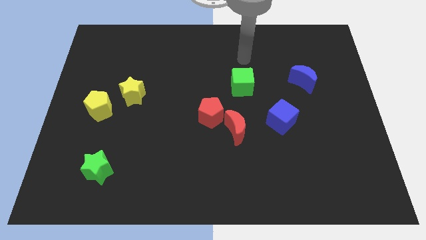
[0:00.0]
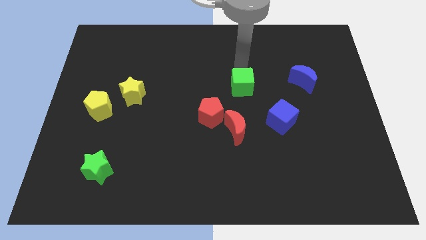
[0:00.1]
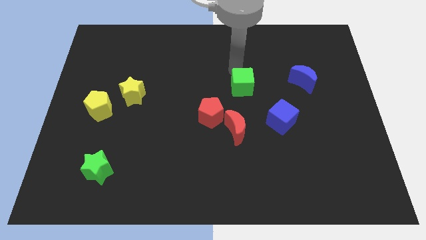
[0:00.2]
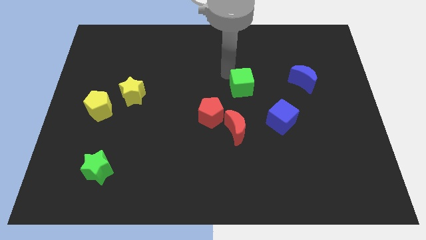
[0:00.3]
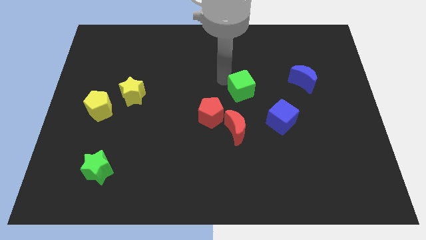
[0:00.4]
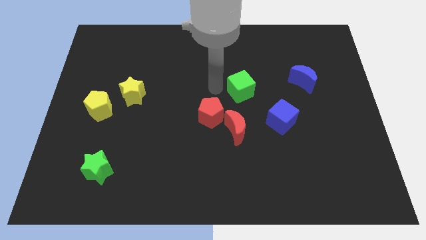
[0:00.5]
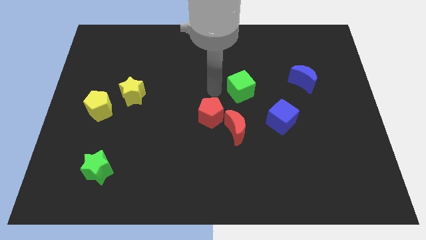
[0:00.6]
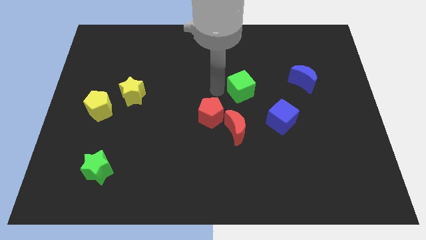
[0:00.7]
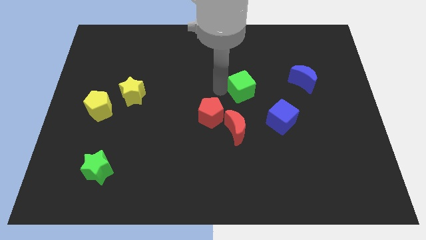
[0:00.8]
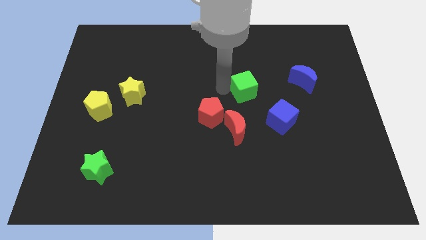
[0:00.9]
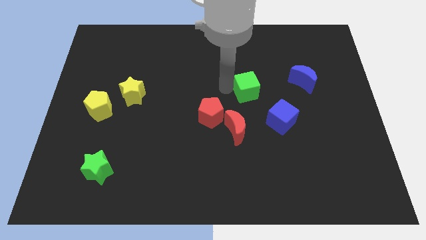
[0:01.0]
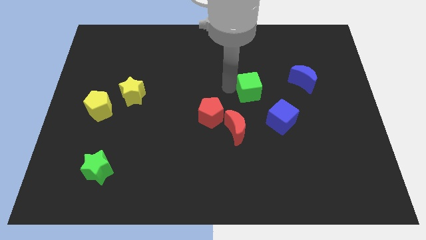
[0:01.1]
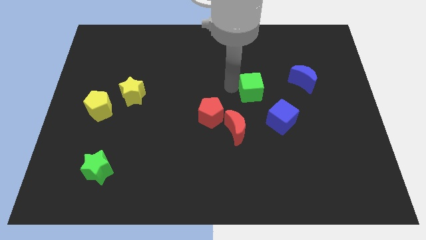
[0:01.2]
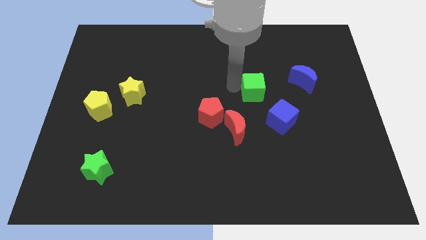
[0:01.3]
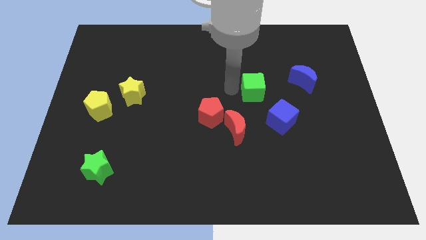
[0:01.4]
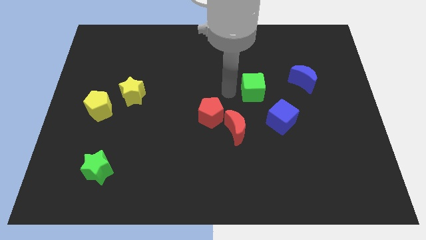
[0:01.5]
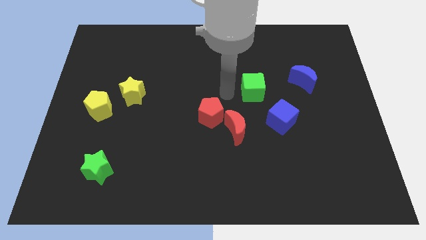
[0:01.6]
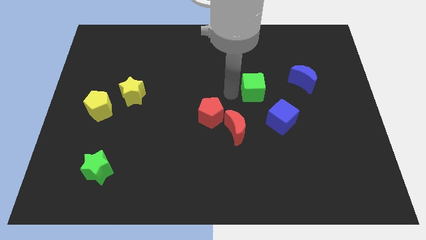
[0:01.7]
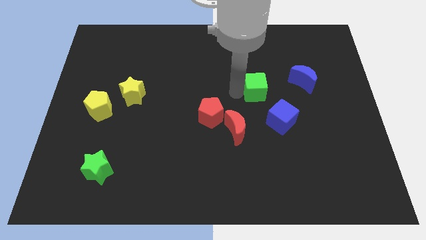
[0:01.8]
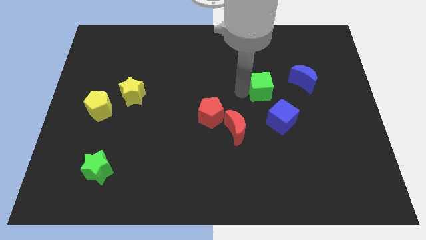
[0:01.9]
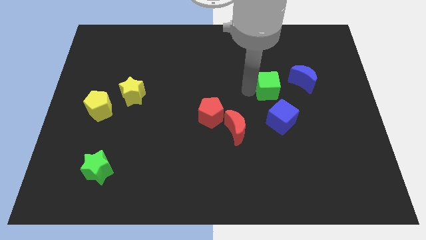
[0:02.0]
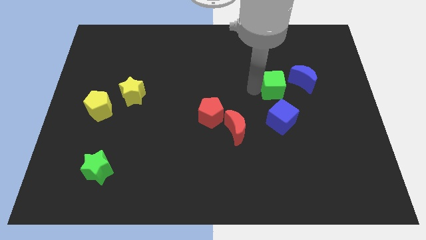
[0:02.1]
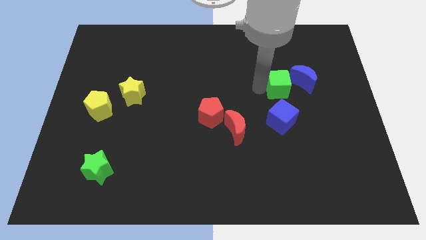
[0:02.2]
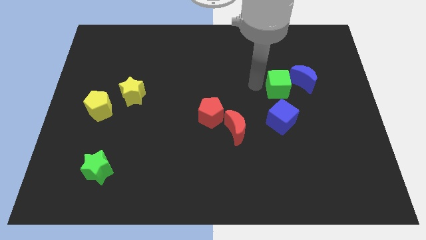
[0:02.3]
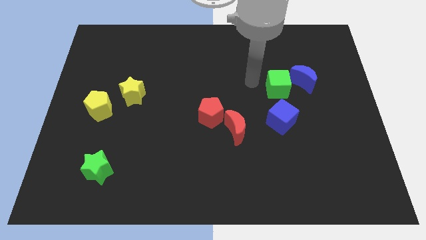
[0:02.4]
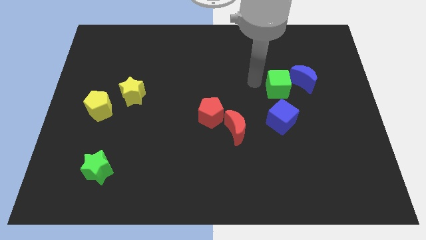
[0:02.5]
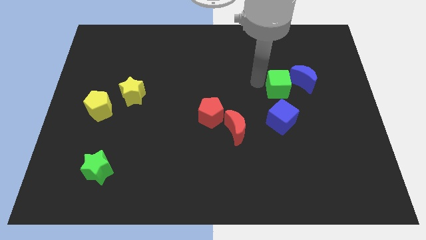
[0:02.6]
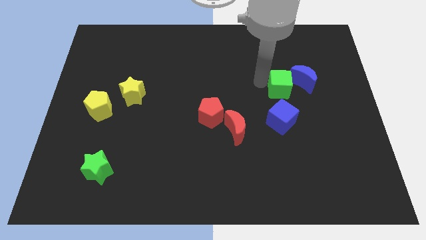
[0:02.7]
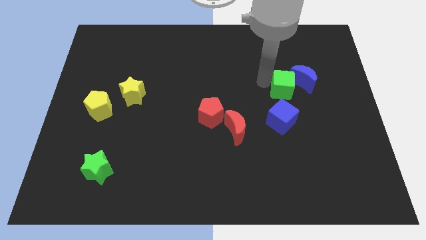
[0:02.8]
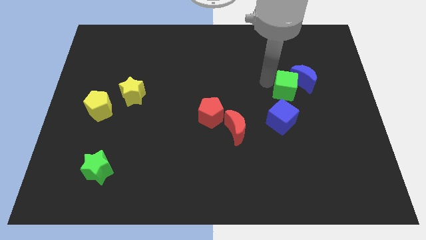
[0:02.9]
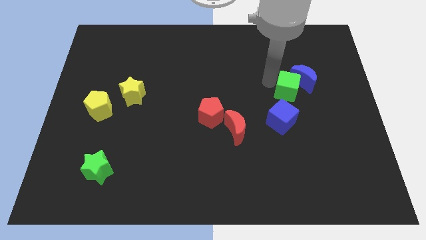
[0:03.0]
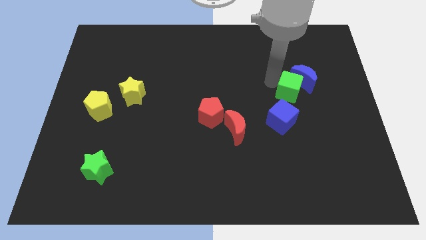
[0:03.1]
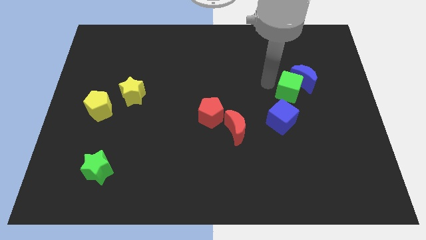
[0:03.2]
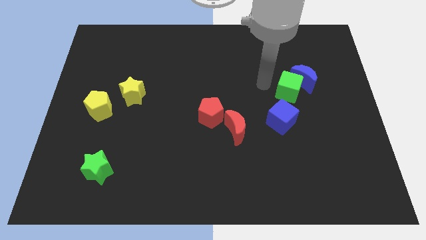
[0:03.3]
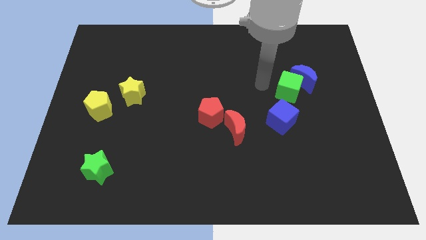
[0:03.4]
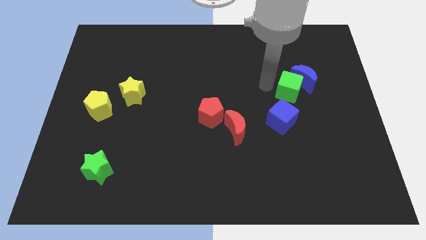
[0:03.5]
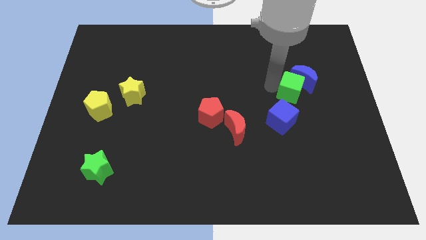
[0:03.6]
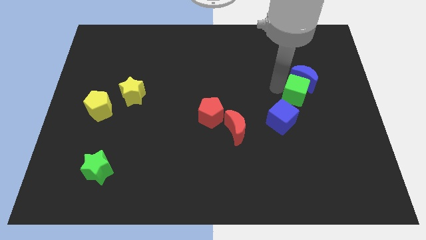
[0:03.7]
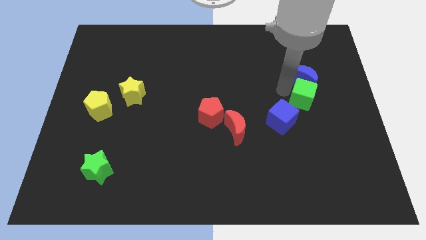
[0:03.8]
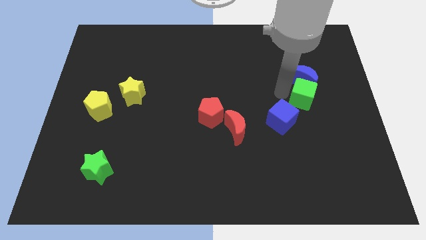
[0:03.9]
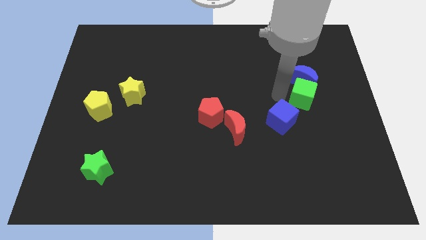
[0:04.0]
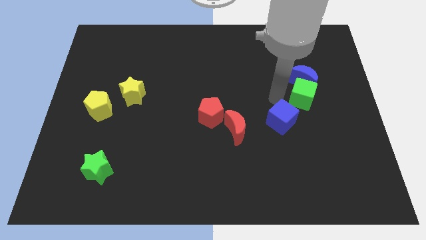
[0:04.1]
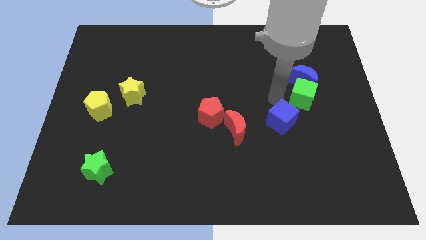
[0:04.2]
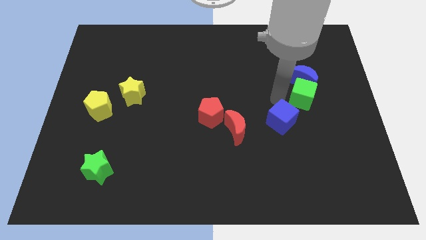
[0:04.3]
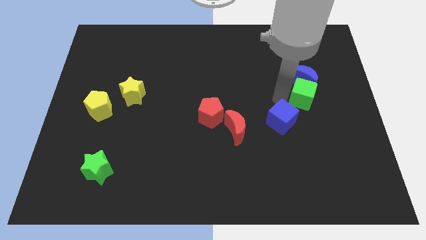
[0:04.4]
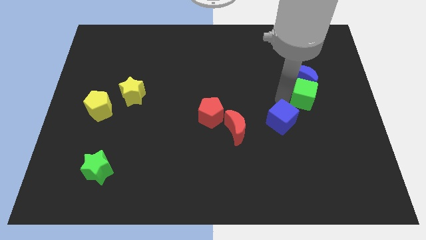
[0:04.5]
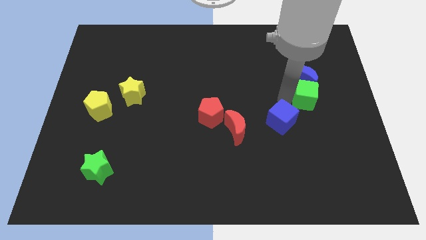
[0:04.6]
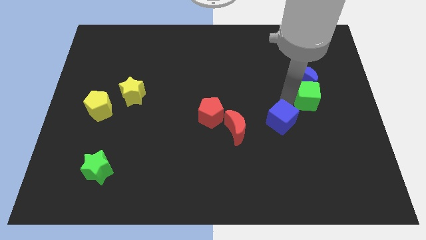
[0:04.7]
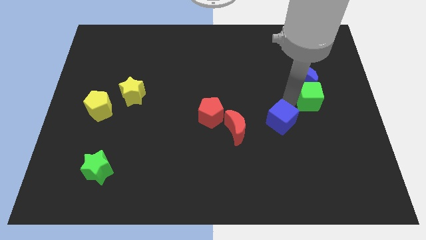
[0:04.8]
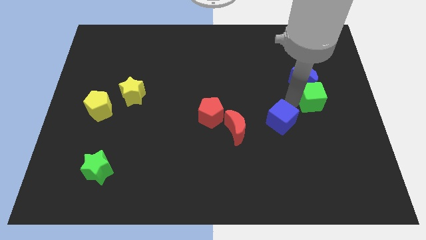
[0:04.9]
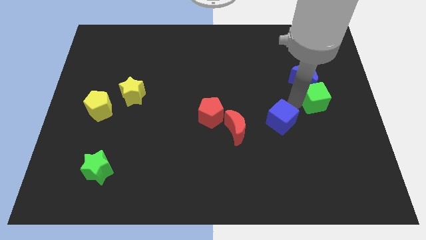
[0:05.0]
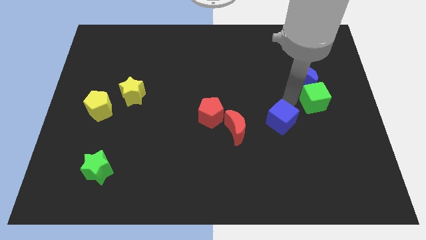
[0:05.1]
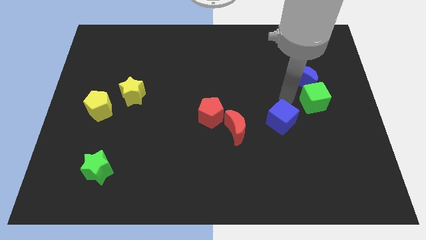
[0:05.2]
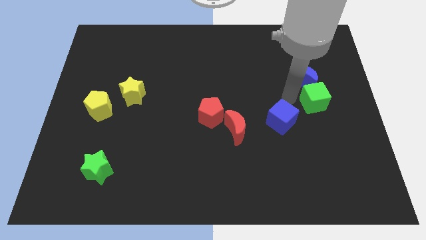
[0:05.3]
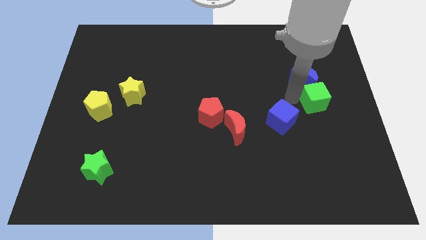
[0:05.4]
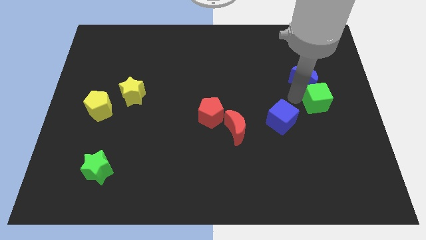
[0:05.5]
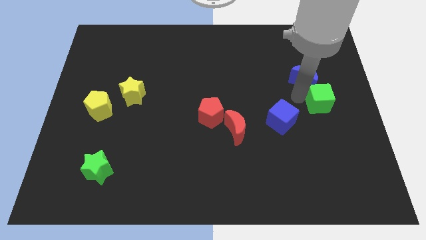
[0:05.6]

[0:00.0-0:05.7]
put the green cube to the right side of the board

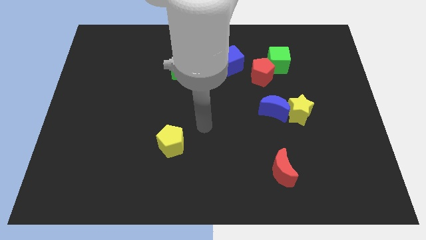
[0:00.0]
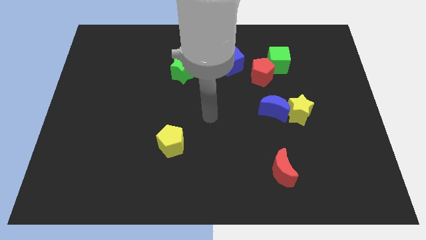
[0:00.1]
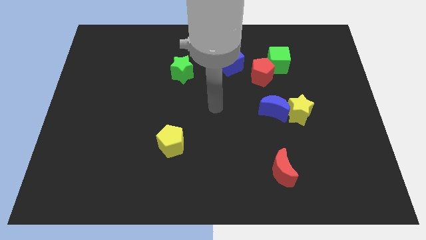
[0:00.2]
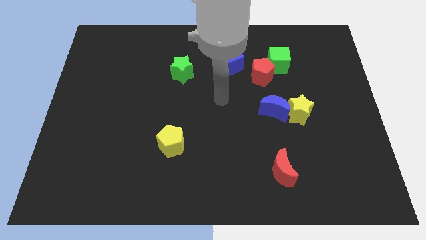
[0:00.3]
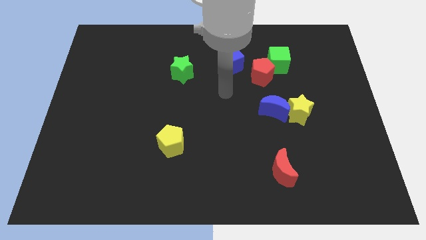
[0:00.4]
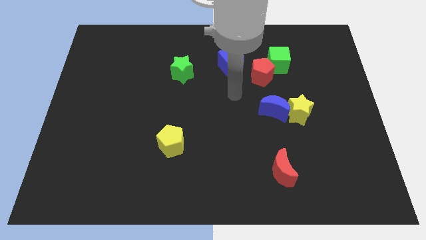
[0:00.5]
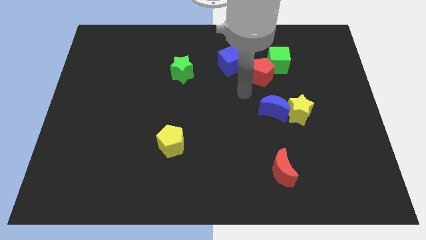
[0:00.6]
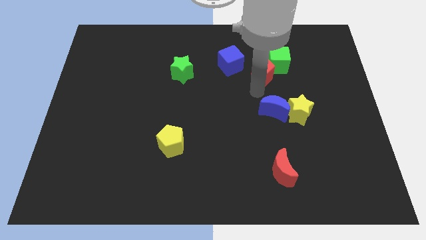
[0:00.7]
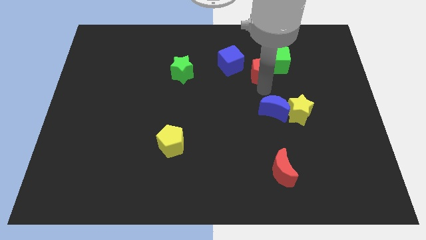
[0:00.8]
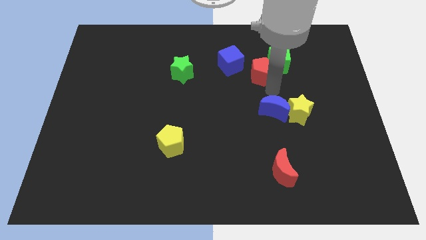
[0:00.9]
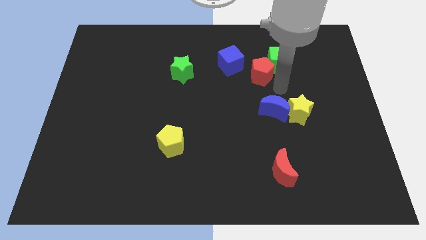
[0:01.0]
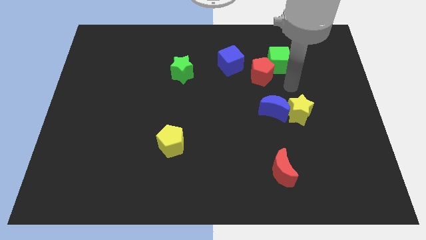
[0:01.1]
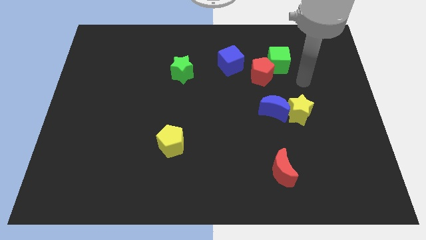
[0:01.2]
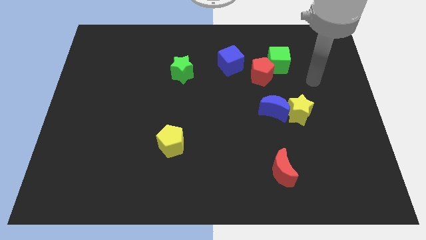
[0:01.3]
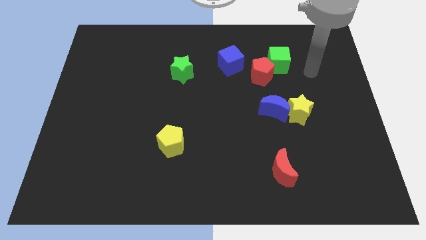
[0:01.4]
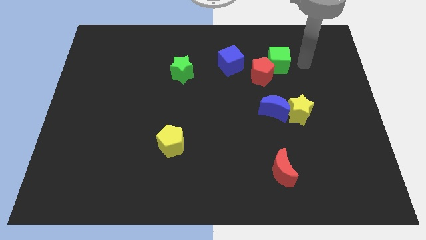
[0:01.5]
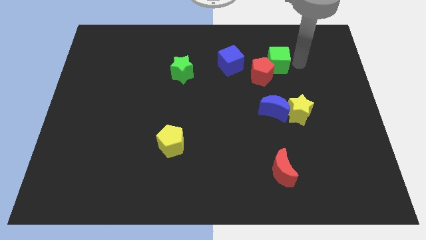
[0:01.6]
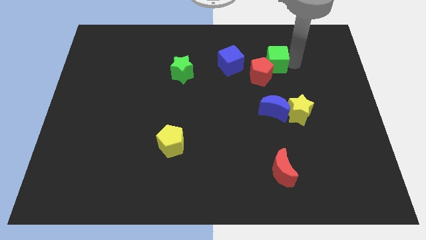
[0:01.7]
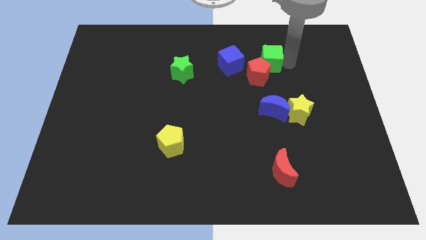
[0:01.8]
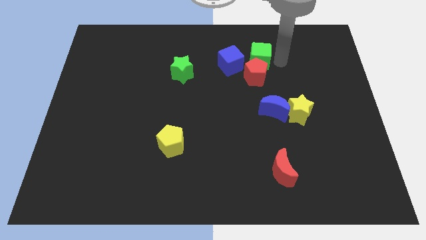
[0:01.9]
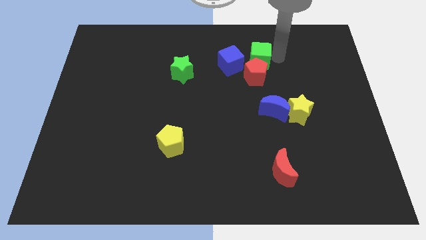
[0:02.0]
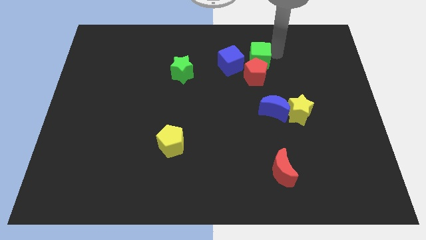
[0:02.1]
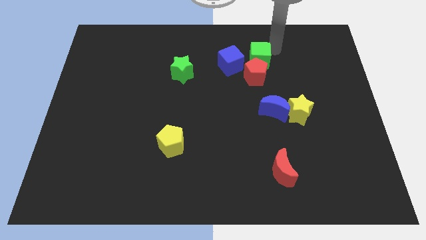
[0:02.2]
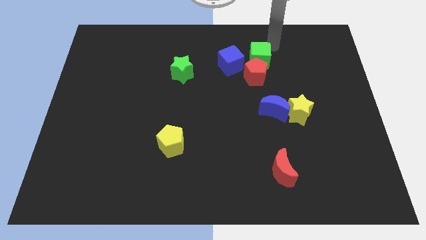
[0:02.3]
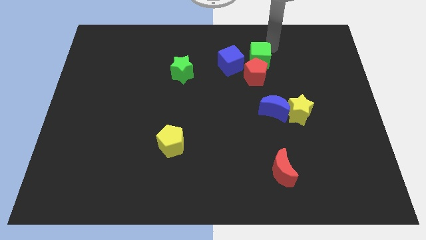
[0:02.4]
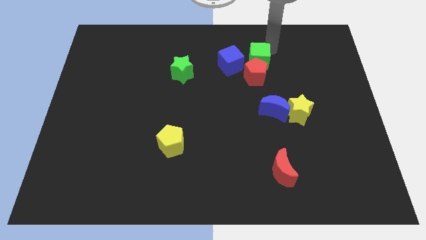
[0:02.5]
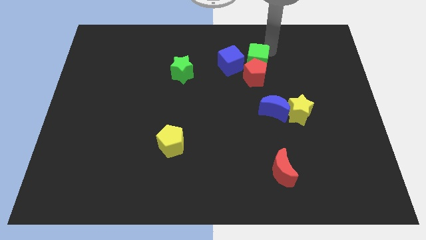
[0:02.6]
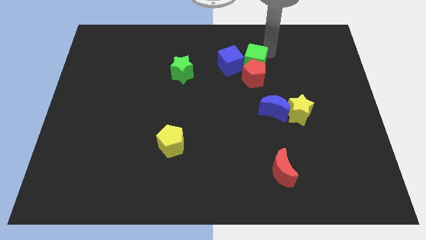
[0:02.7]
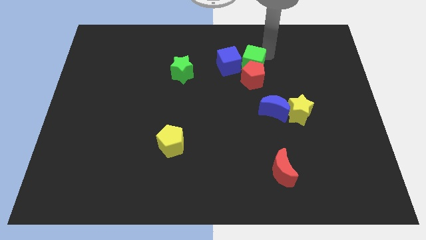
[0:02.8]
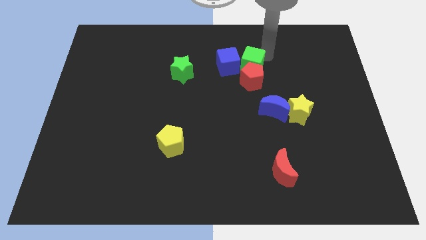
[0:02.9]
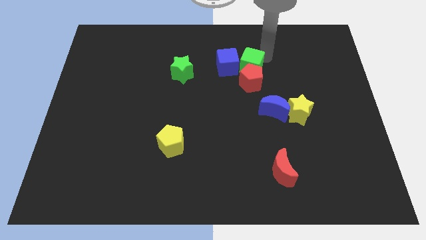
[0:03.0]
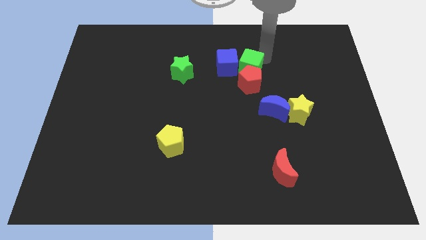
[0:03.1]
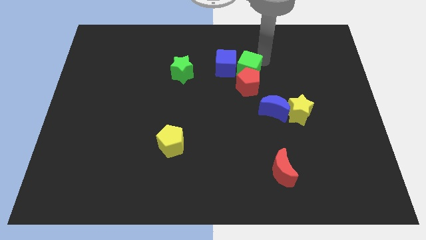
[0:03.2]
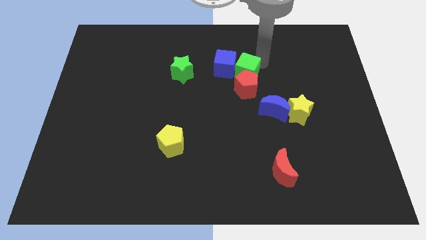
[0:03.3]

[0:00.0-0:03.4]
put the green cube to the center
